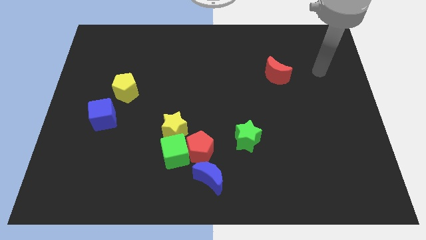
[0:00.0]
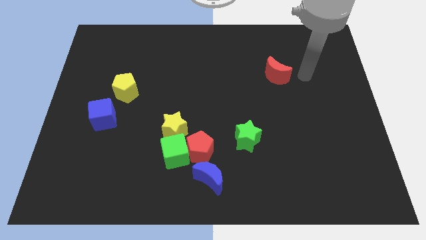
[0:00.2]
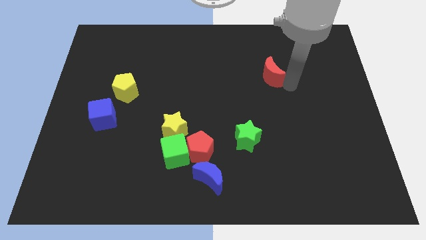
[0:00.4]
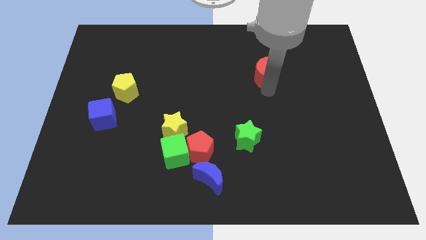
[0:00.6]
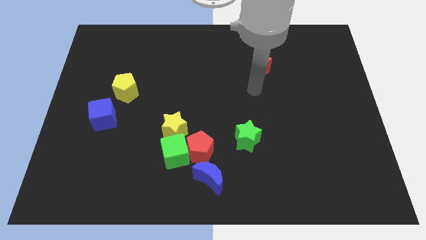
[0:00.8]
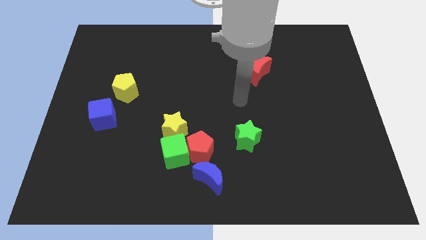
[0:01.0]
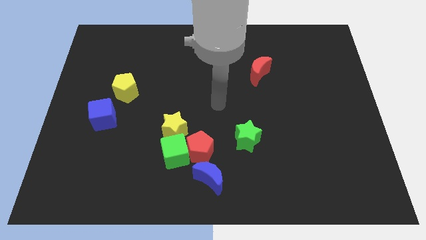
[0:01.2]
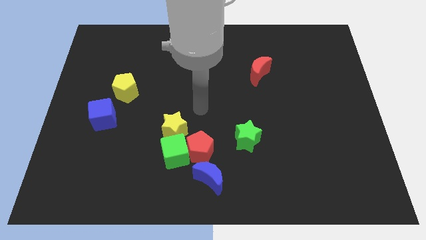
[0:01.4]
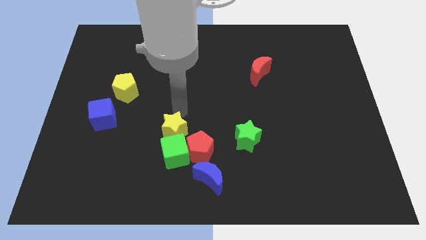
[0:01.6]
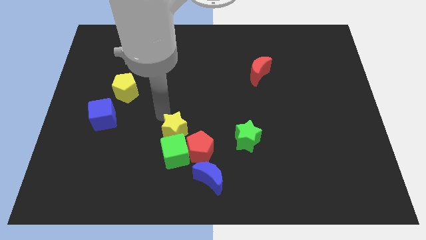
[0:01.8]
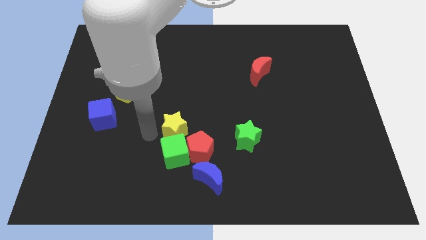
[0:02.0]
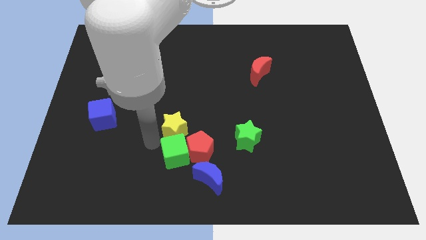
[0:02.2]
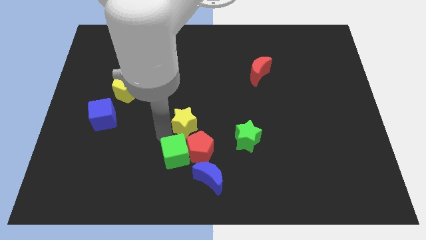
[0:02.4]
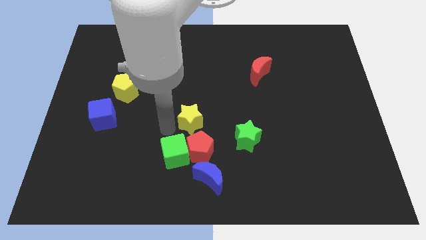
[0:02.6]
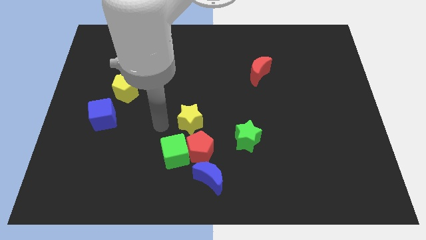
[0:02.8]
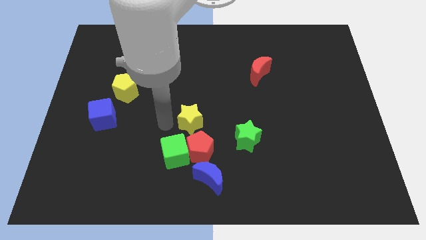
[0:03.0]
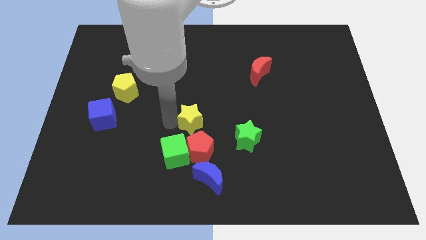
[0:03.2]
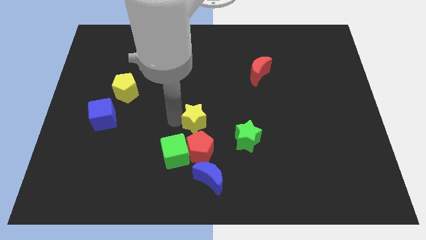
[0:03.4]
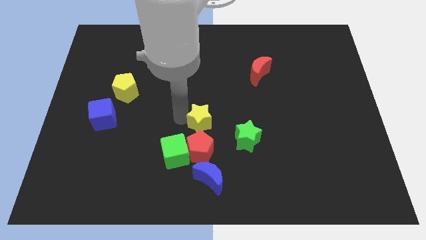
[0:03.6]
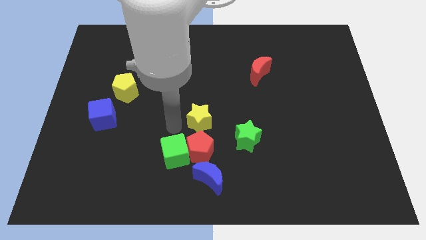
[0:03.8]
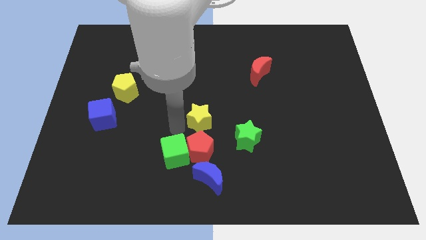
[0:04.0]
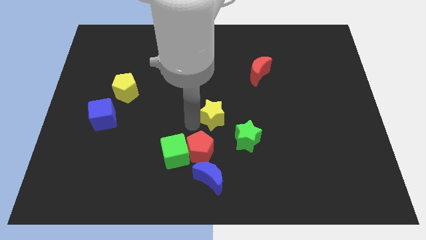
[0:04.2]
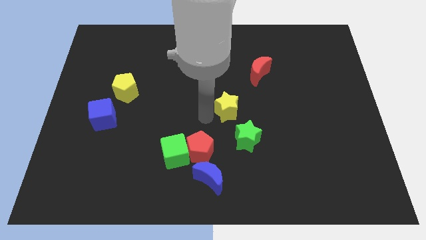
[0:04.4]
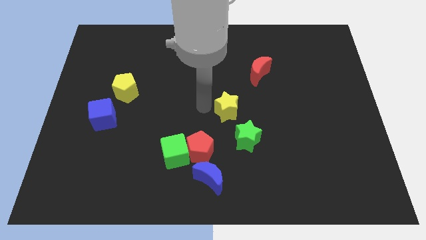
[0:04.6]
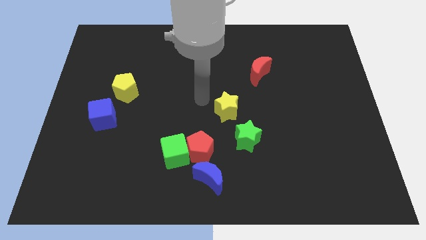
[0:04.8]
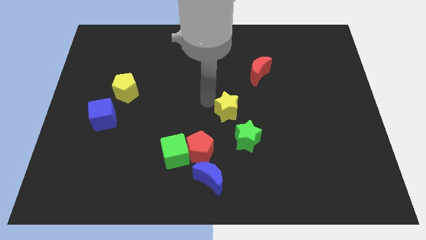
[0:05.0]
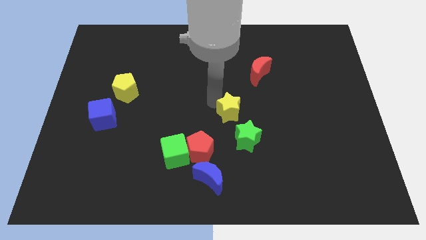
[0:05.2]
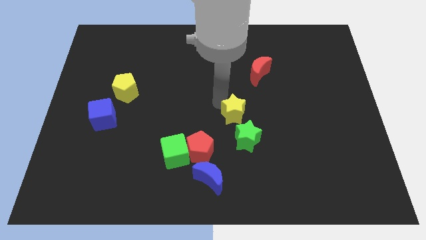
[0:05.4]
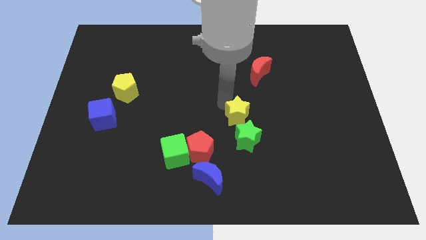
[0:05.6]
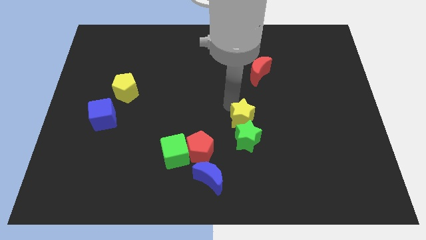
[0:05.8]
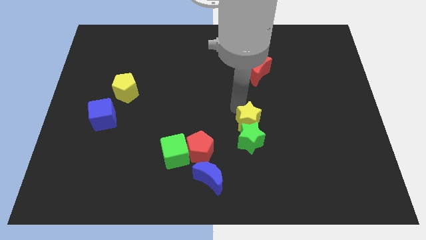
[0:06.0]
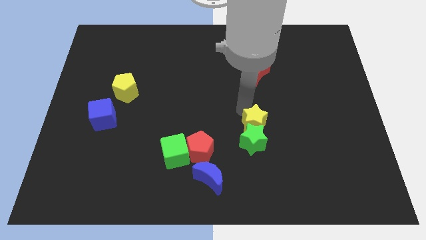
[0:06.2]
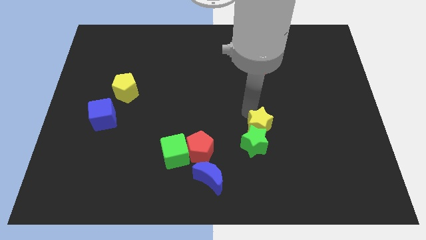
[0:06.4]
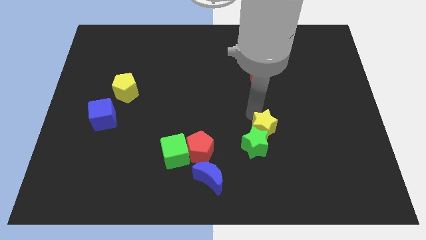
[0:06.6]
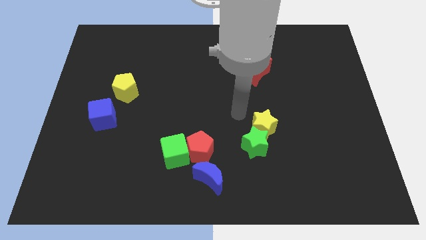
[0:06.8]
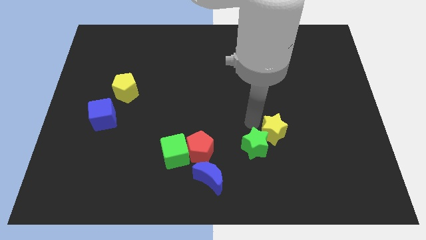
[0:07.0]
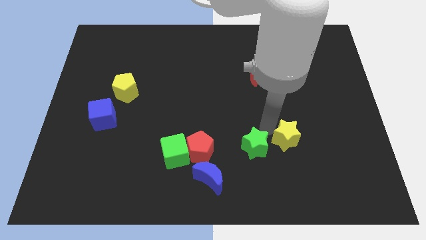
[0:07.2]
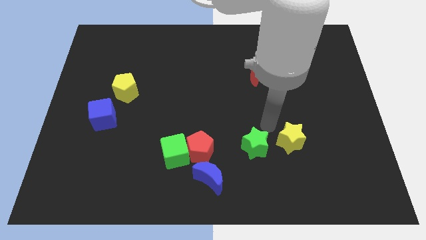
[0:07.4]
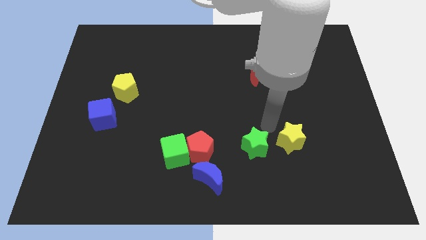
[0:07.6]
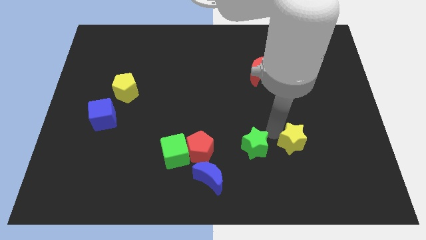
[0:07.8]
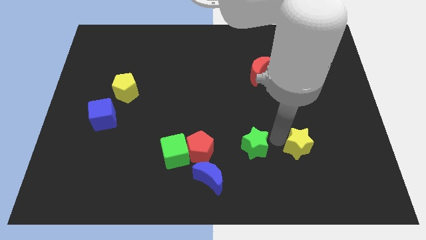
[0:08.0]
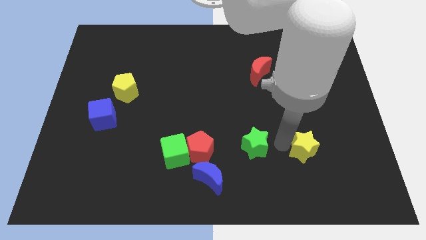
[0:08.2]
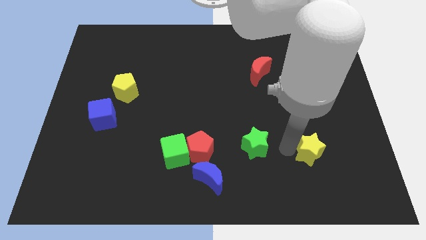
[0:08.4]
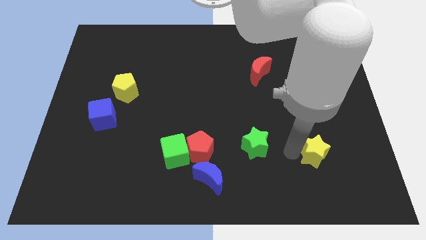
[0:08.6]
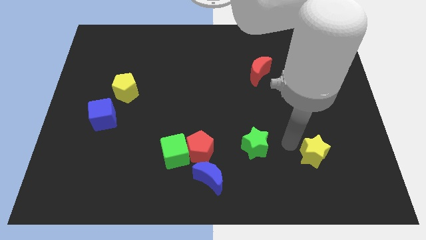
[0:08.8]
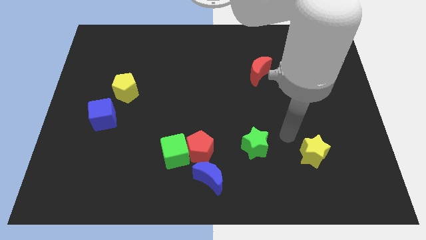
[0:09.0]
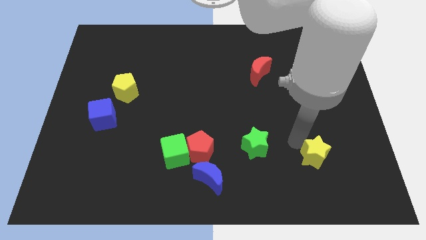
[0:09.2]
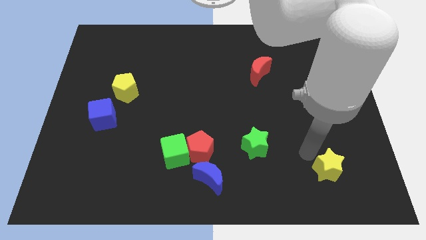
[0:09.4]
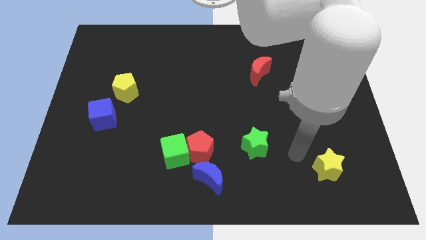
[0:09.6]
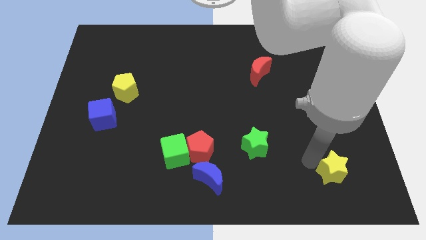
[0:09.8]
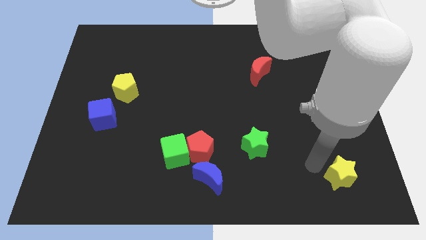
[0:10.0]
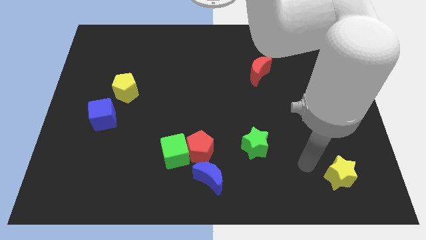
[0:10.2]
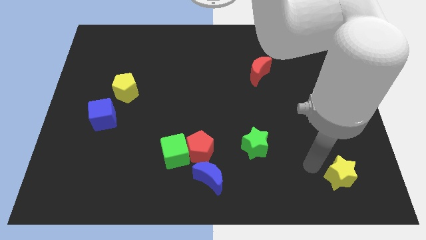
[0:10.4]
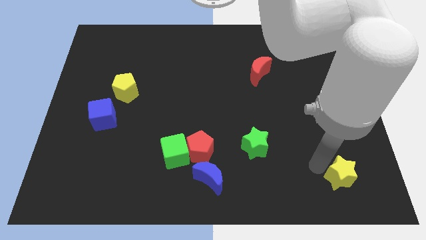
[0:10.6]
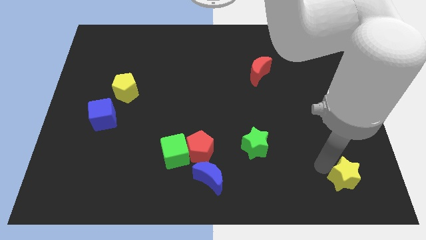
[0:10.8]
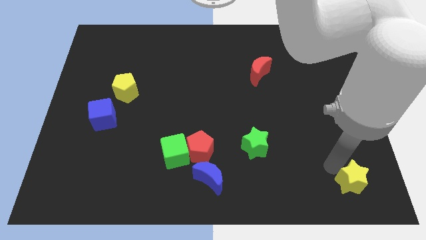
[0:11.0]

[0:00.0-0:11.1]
move the yellow star to the bottom right
